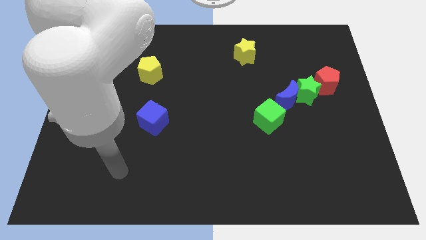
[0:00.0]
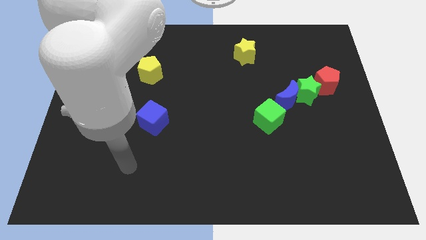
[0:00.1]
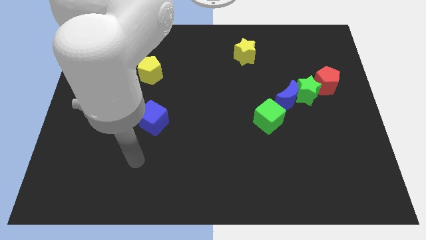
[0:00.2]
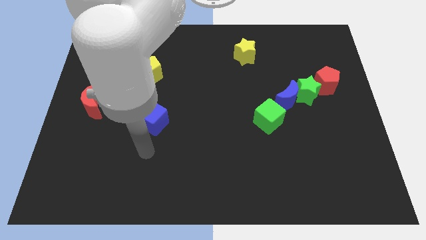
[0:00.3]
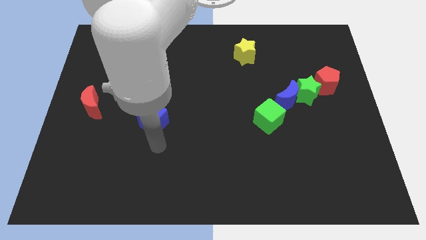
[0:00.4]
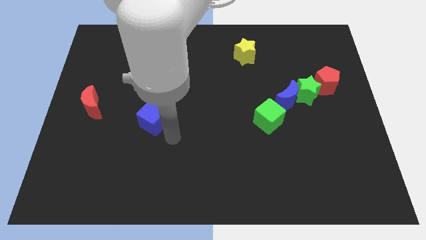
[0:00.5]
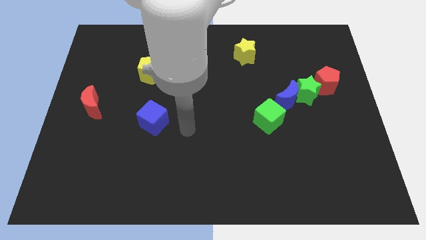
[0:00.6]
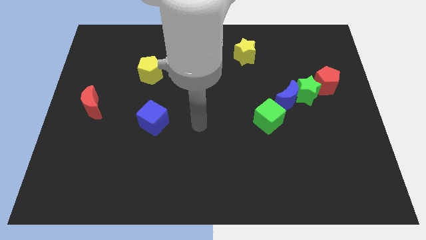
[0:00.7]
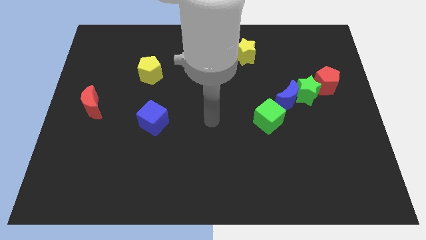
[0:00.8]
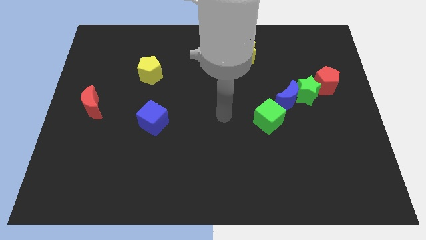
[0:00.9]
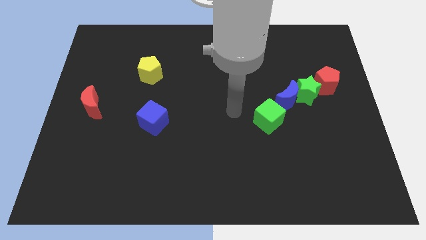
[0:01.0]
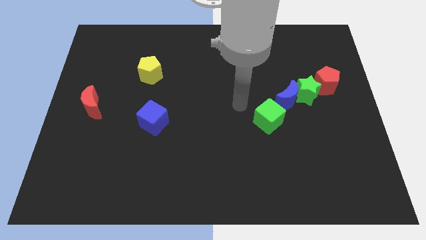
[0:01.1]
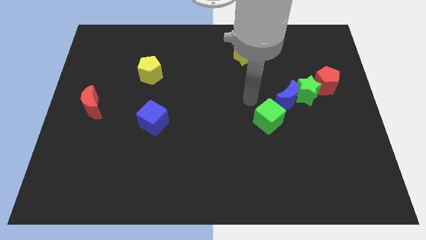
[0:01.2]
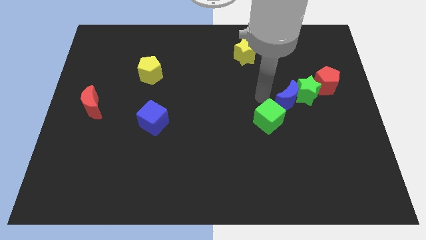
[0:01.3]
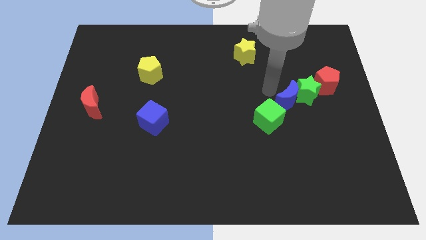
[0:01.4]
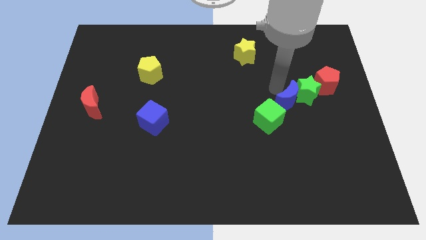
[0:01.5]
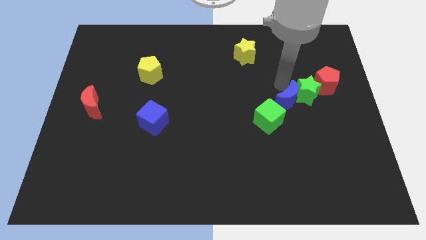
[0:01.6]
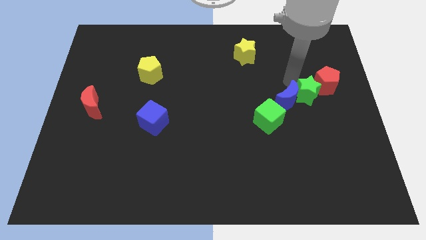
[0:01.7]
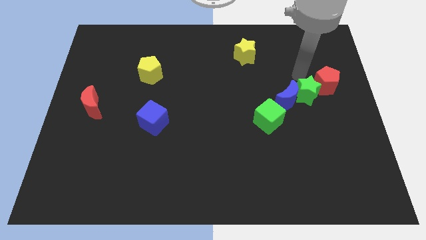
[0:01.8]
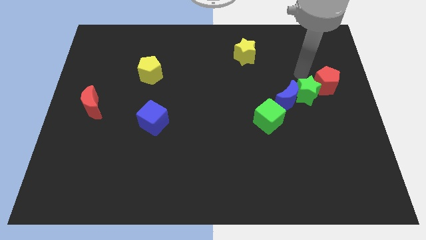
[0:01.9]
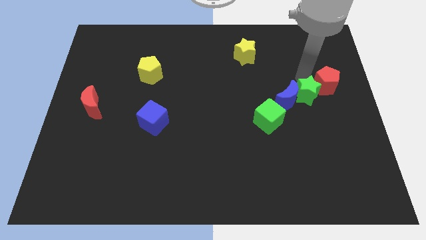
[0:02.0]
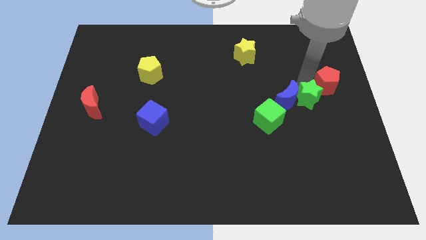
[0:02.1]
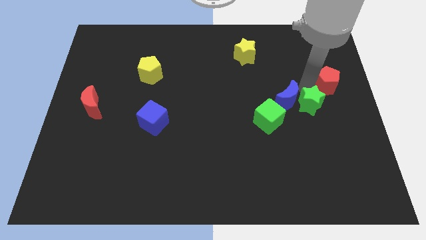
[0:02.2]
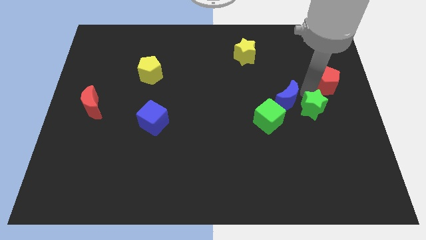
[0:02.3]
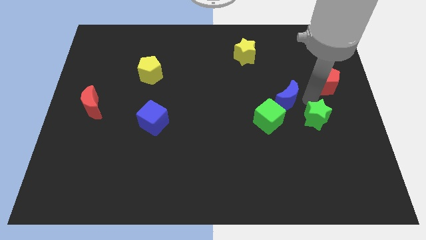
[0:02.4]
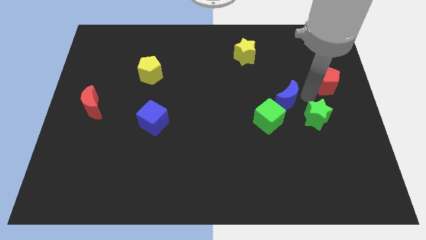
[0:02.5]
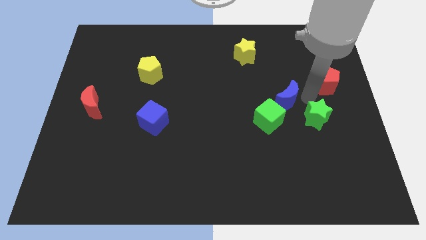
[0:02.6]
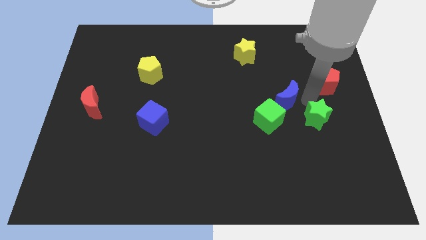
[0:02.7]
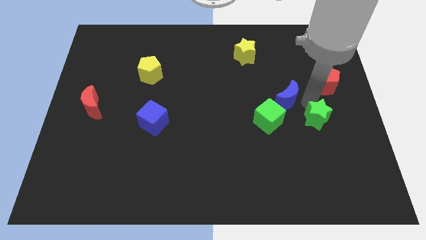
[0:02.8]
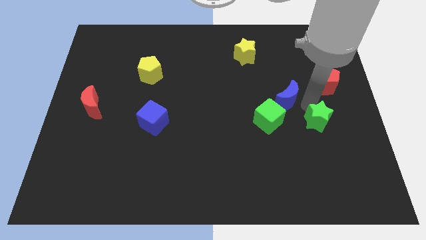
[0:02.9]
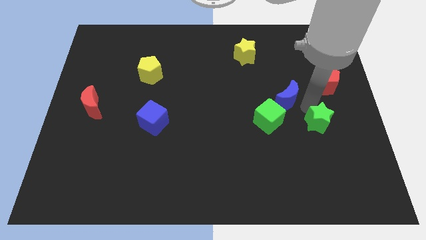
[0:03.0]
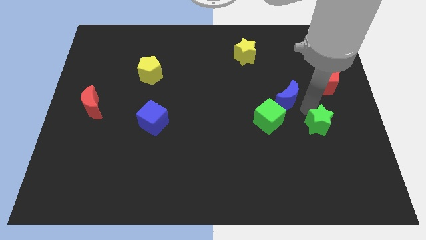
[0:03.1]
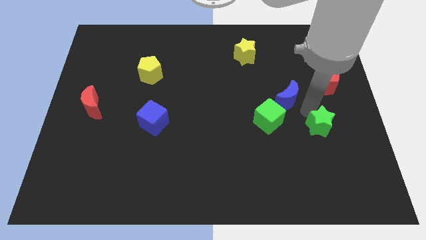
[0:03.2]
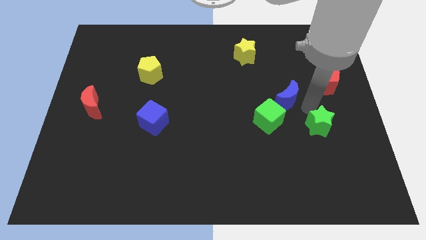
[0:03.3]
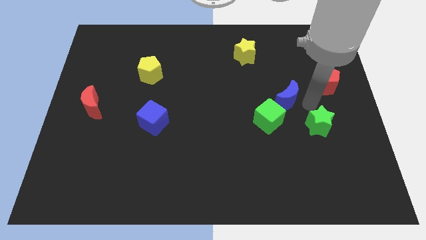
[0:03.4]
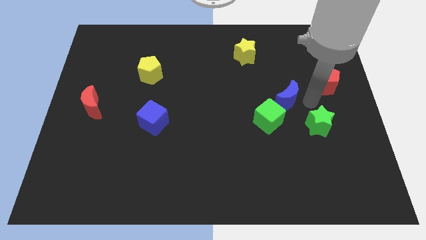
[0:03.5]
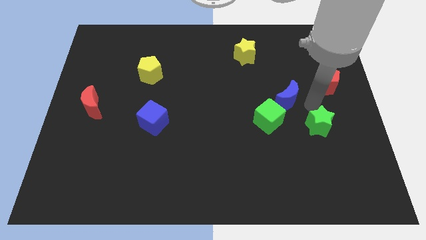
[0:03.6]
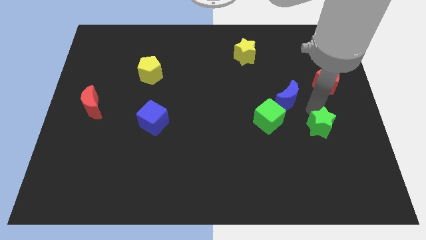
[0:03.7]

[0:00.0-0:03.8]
separate the green star from the blue moon and red pentagon

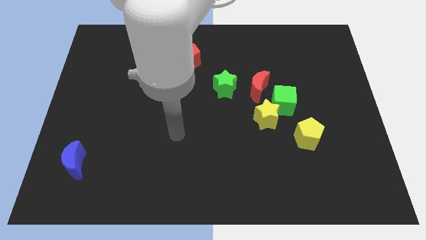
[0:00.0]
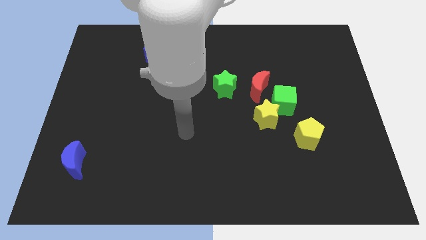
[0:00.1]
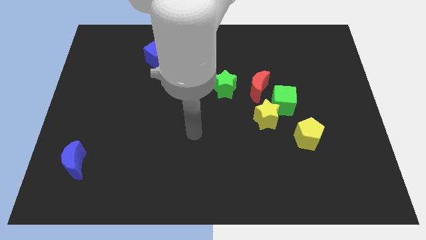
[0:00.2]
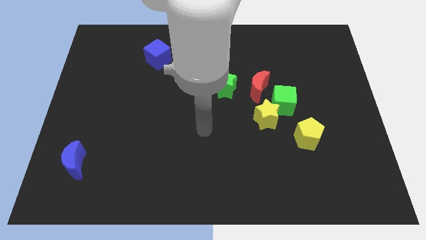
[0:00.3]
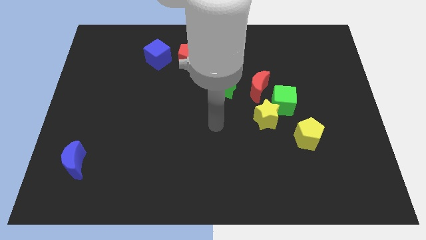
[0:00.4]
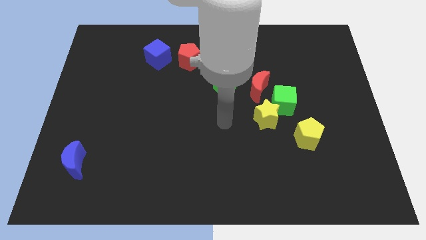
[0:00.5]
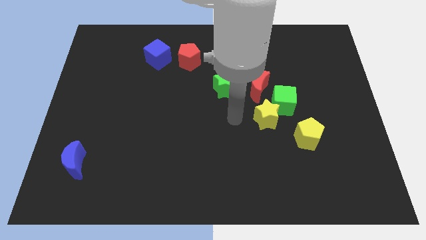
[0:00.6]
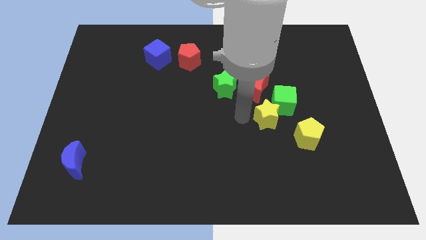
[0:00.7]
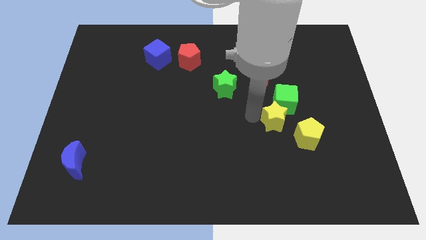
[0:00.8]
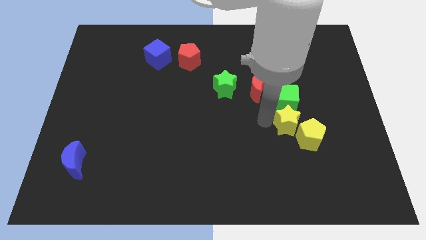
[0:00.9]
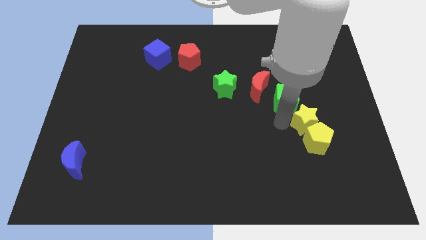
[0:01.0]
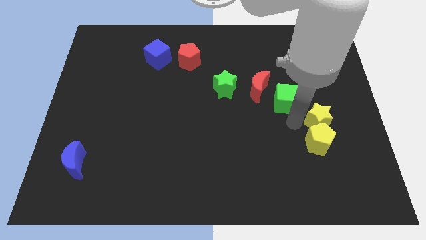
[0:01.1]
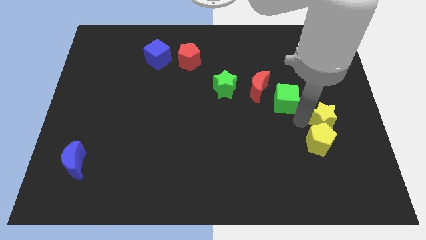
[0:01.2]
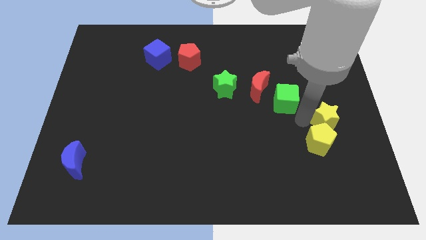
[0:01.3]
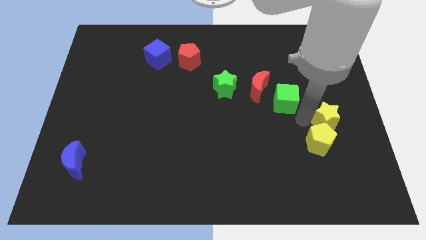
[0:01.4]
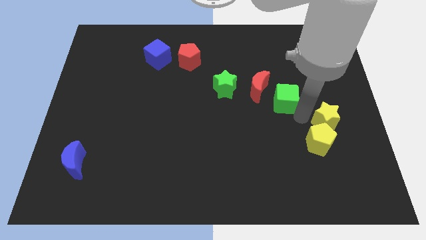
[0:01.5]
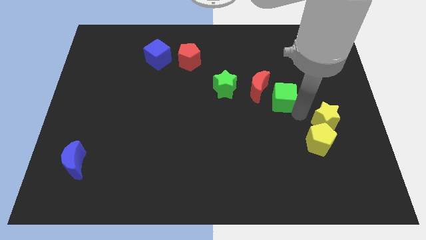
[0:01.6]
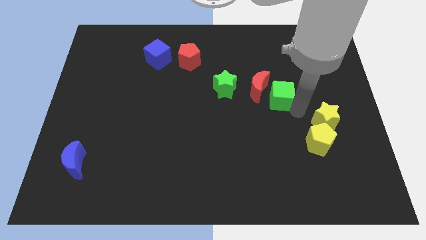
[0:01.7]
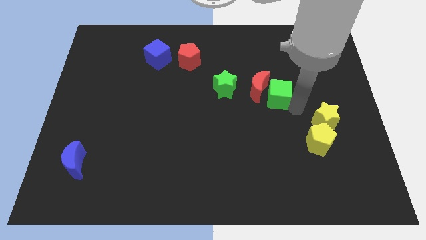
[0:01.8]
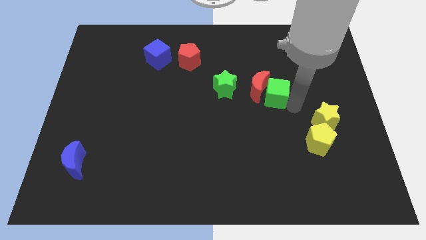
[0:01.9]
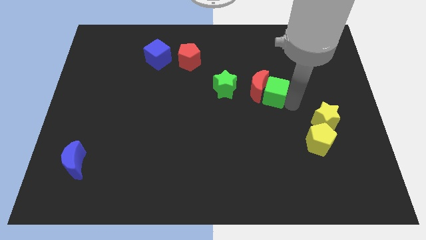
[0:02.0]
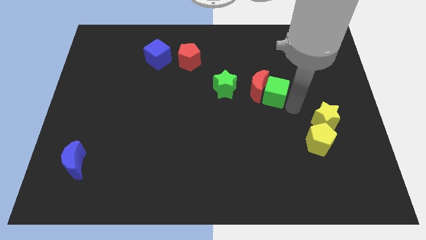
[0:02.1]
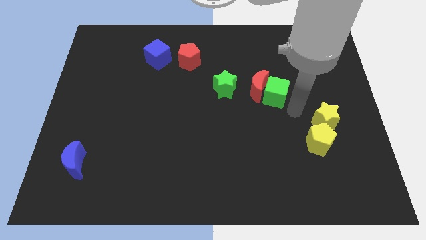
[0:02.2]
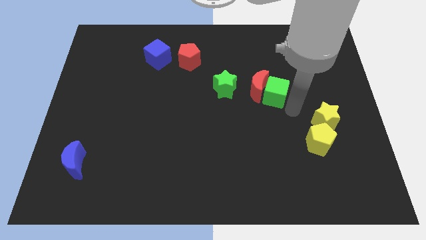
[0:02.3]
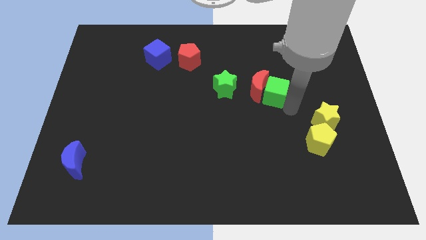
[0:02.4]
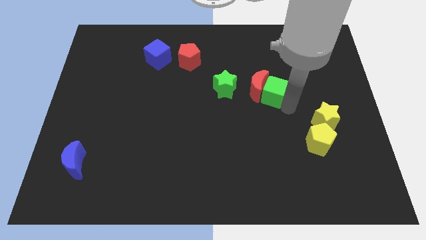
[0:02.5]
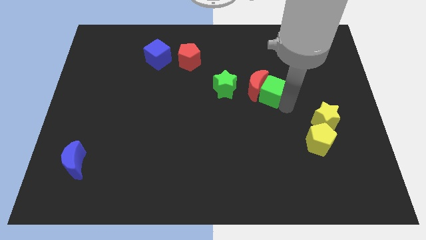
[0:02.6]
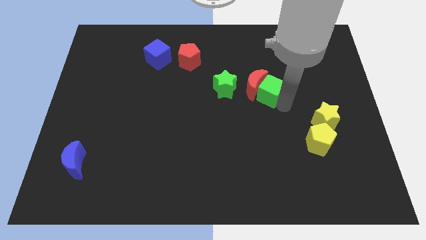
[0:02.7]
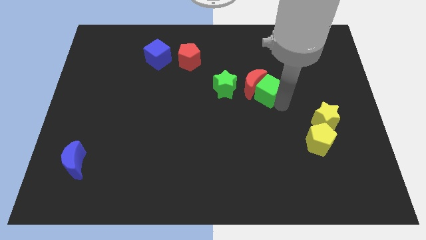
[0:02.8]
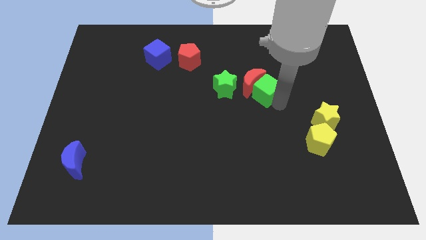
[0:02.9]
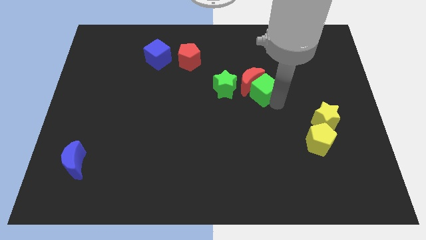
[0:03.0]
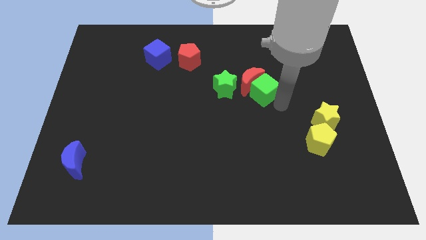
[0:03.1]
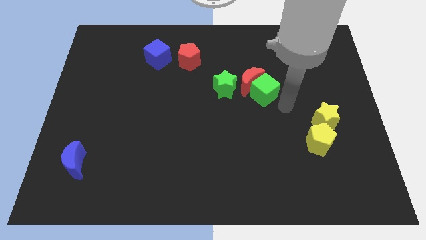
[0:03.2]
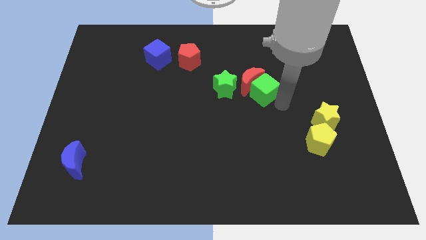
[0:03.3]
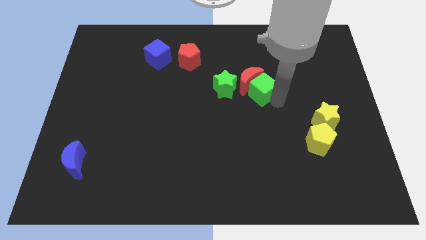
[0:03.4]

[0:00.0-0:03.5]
separate the green cube from the yellow star, red moon, and yellow pentagon

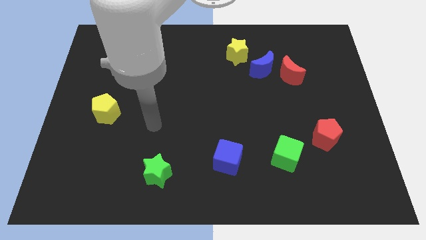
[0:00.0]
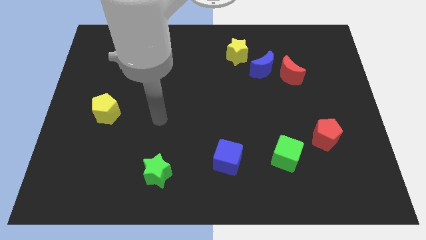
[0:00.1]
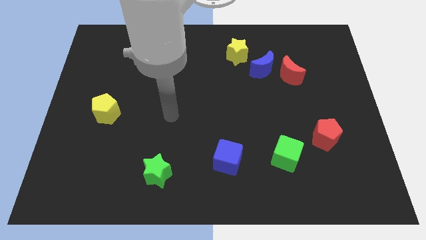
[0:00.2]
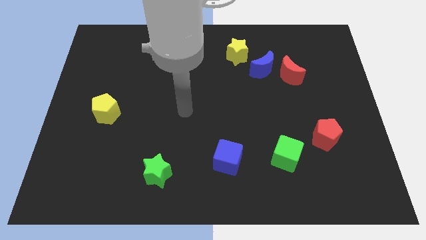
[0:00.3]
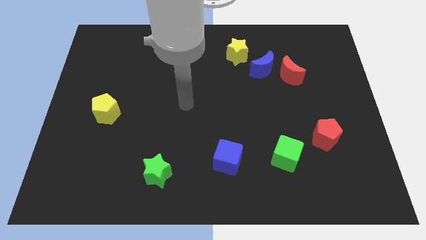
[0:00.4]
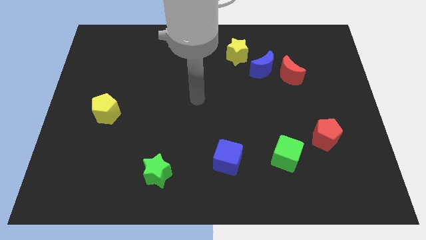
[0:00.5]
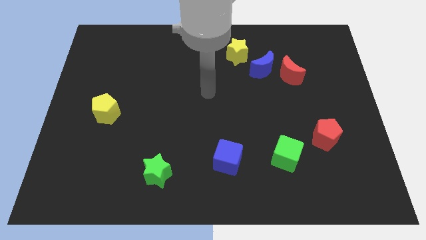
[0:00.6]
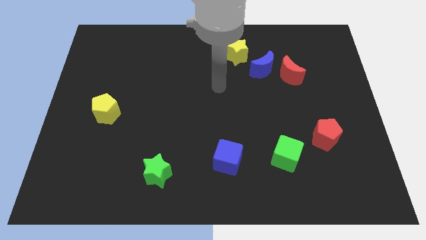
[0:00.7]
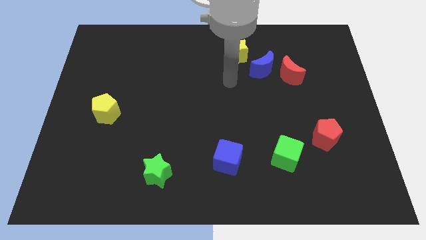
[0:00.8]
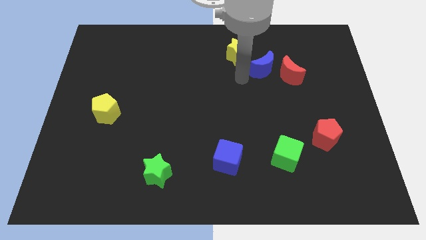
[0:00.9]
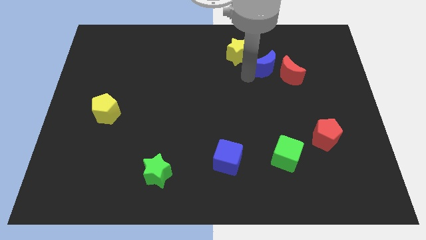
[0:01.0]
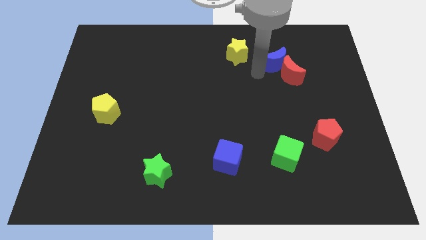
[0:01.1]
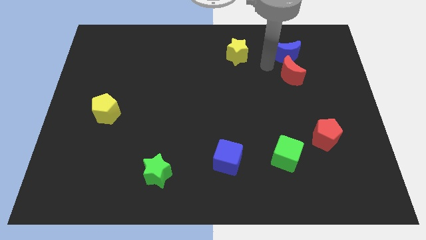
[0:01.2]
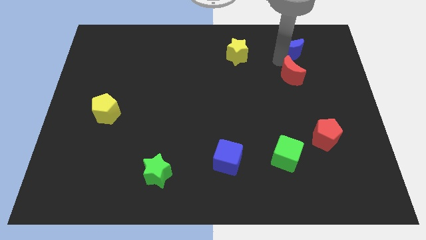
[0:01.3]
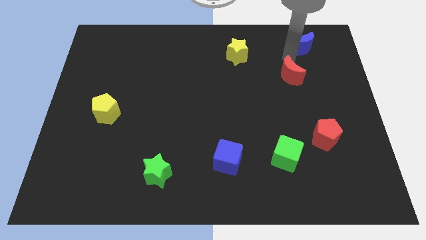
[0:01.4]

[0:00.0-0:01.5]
pull the red moon apart from the blue moon

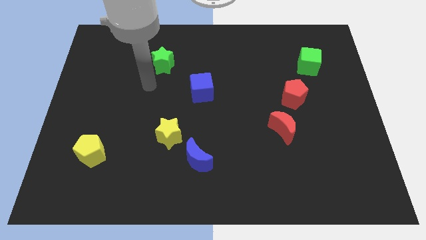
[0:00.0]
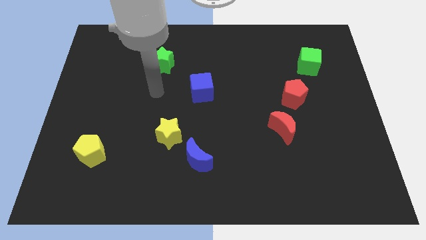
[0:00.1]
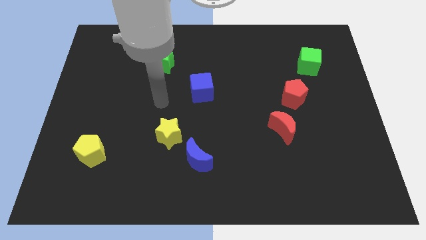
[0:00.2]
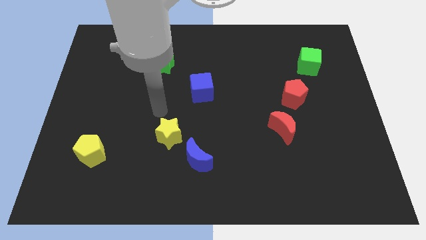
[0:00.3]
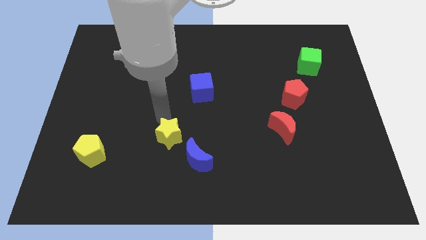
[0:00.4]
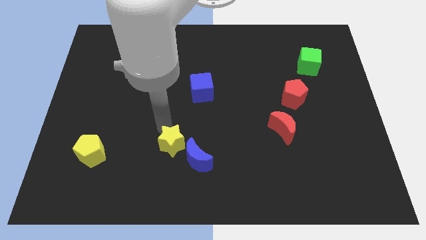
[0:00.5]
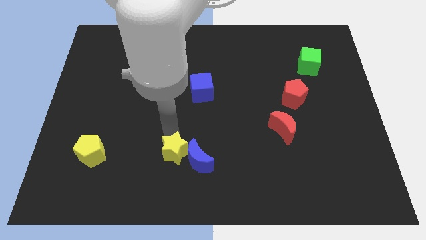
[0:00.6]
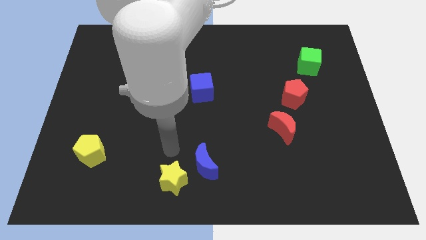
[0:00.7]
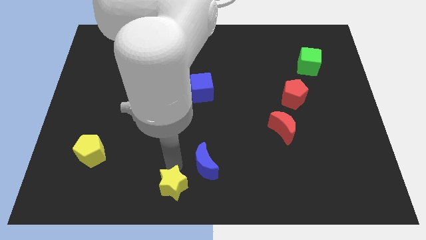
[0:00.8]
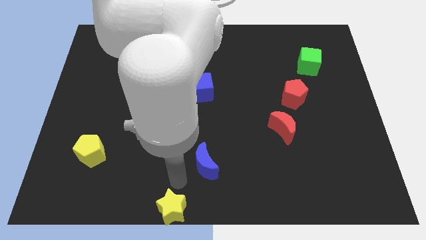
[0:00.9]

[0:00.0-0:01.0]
move the blue moon away from the yellow star
